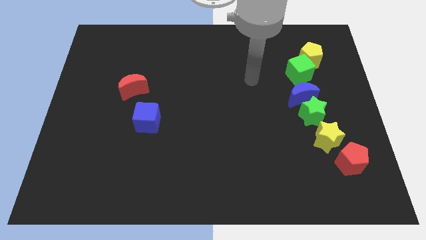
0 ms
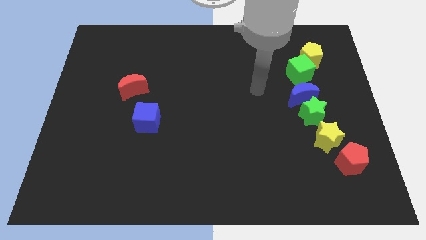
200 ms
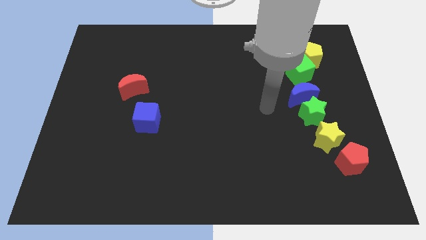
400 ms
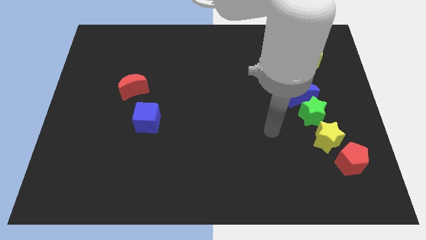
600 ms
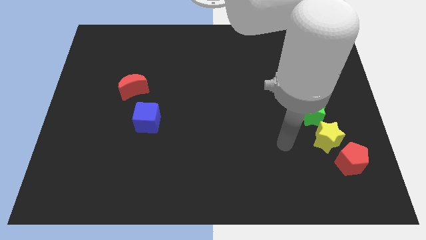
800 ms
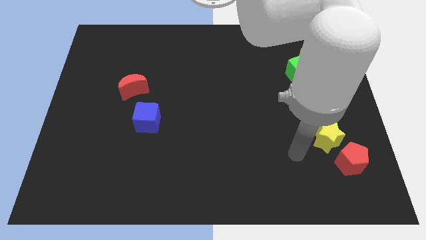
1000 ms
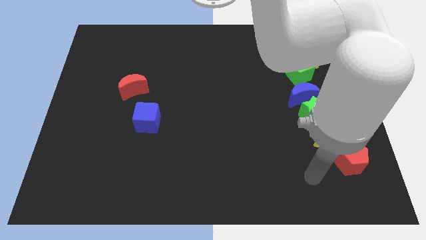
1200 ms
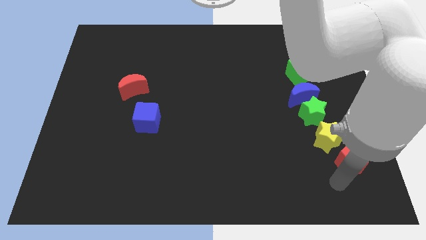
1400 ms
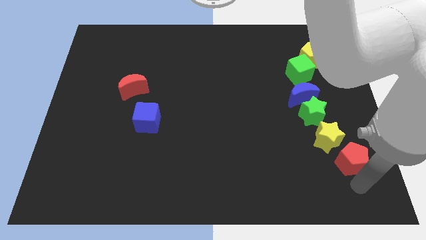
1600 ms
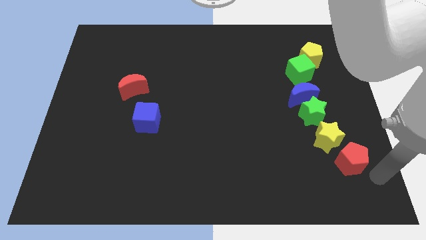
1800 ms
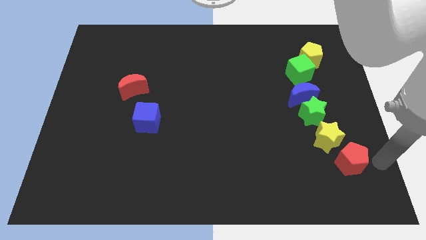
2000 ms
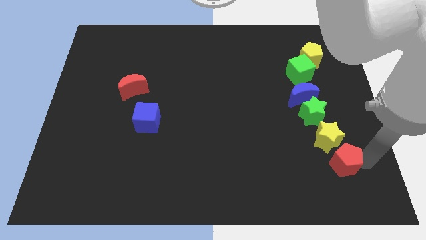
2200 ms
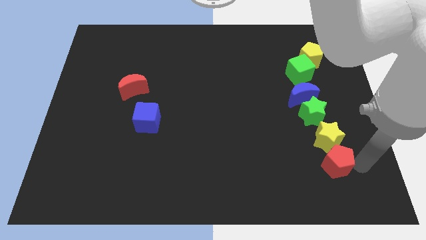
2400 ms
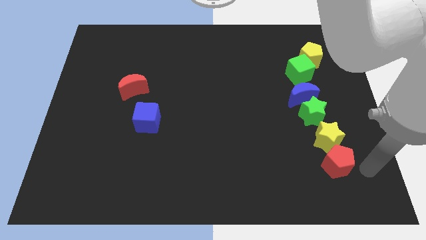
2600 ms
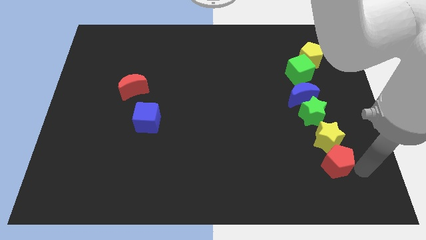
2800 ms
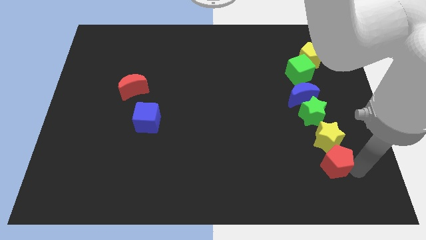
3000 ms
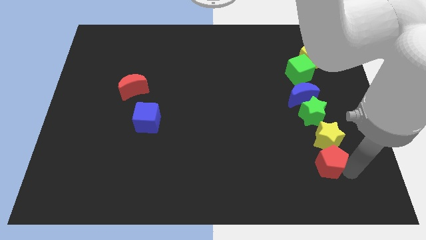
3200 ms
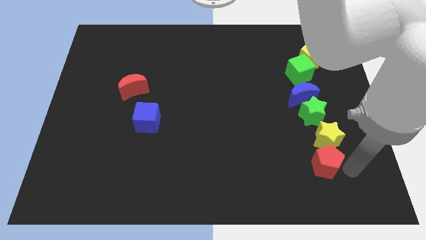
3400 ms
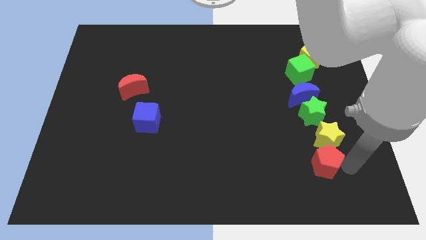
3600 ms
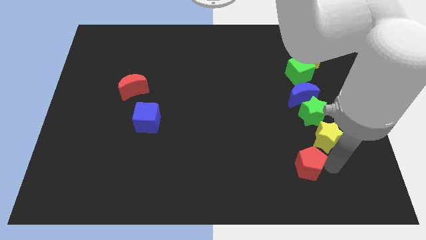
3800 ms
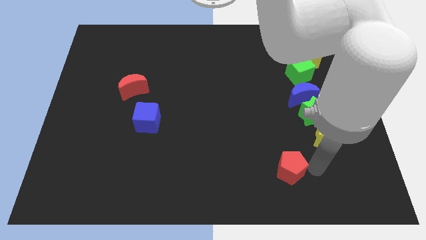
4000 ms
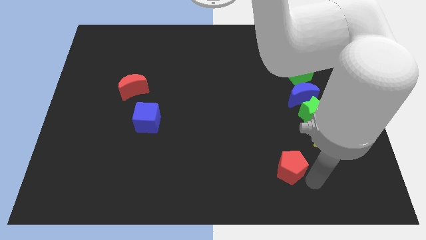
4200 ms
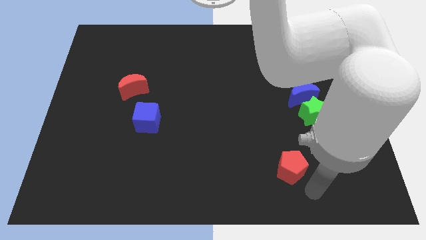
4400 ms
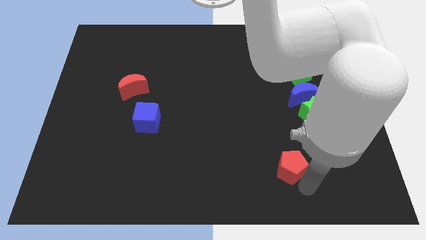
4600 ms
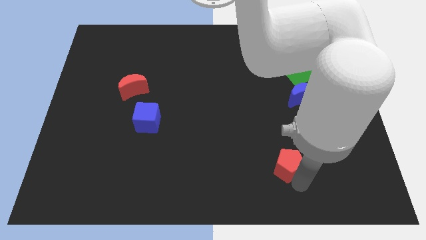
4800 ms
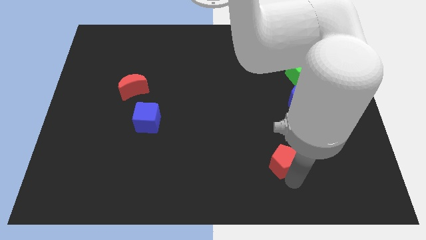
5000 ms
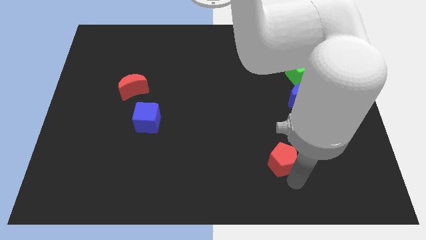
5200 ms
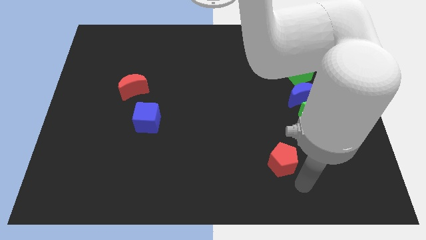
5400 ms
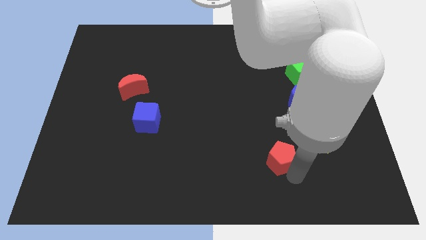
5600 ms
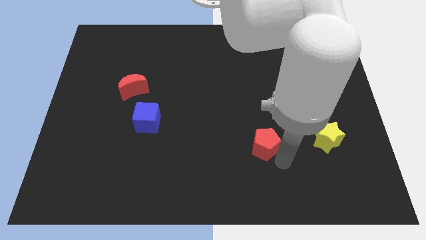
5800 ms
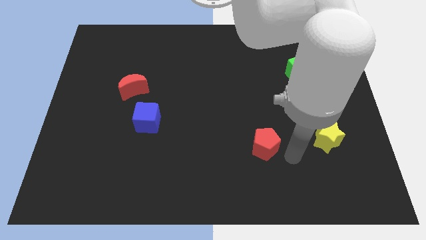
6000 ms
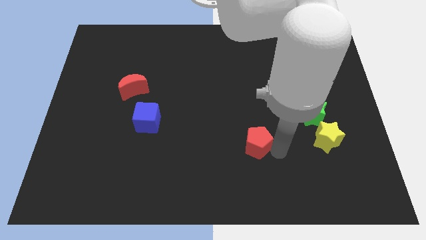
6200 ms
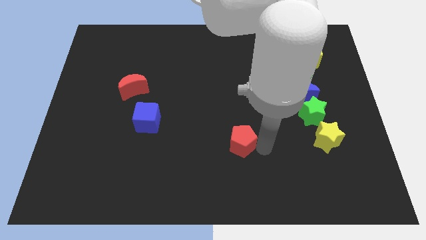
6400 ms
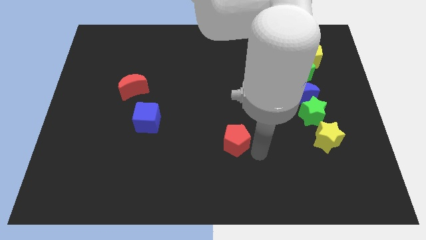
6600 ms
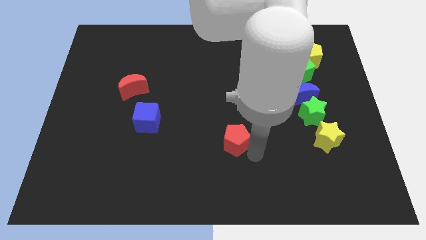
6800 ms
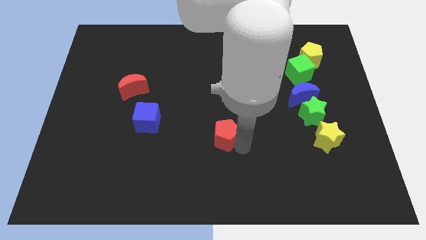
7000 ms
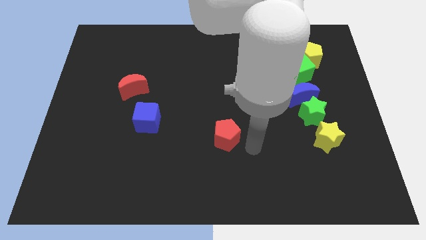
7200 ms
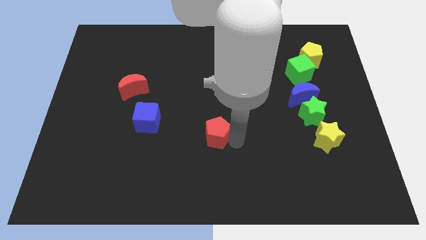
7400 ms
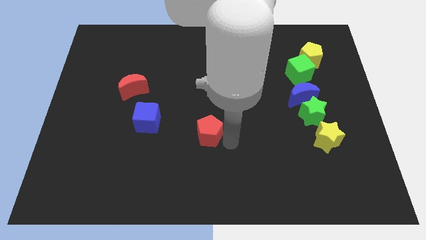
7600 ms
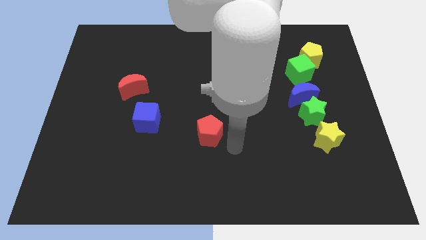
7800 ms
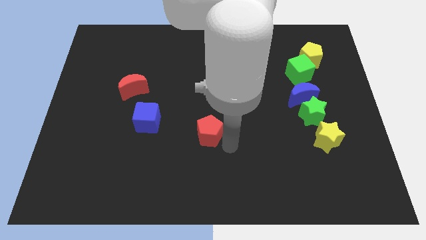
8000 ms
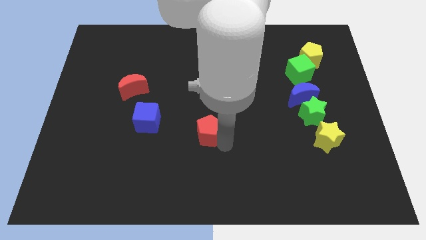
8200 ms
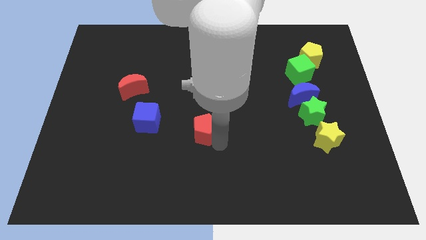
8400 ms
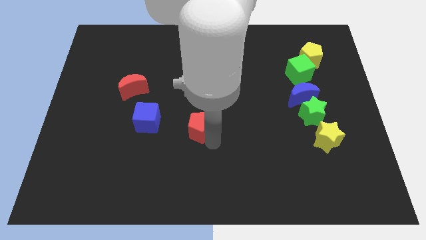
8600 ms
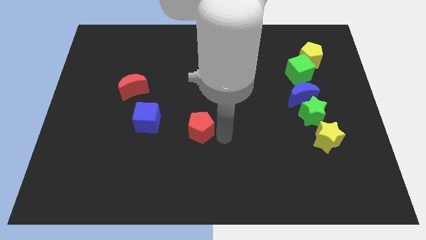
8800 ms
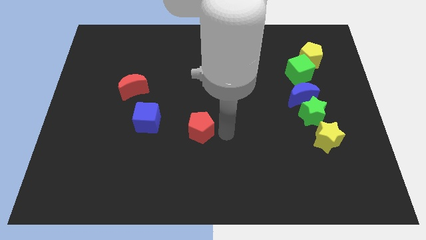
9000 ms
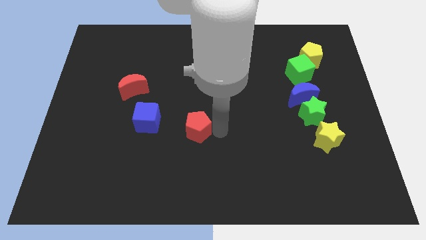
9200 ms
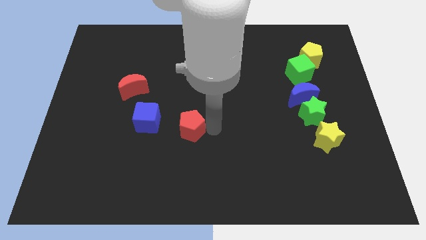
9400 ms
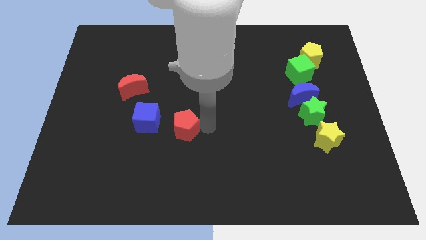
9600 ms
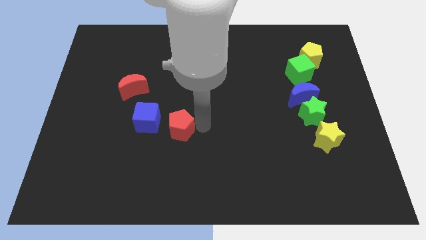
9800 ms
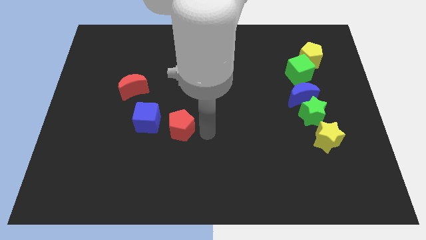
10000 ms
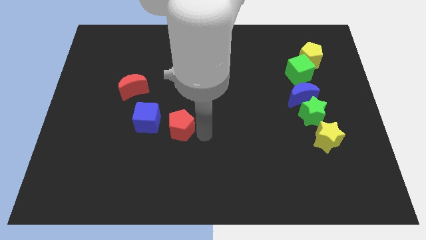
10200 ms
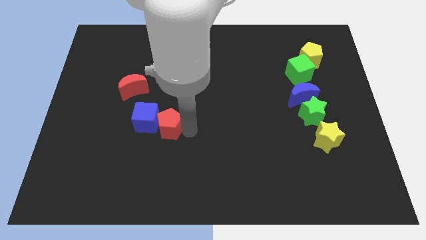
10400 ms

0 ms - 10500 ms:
slide the red pentagon towards the blue cube

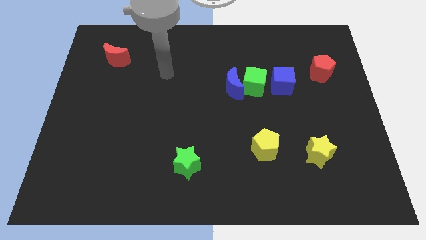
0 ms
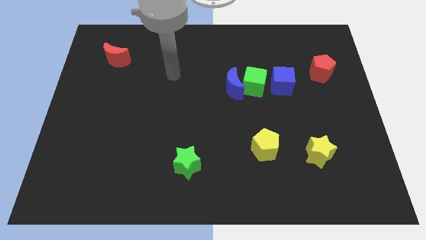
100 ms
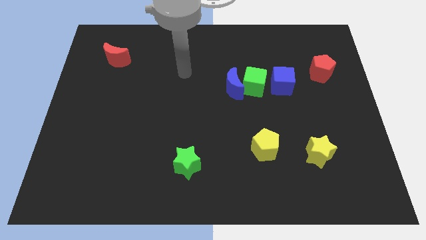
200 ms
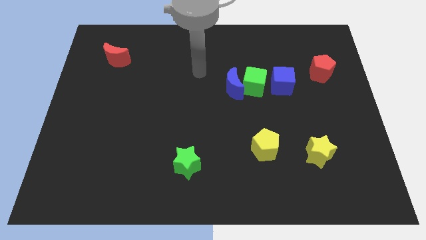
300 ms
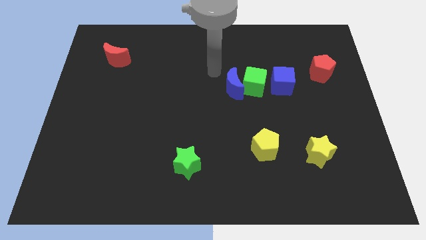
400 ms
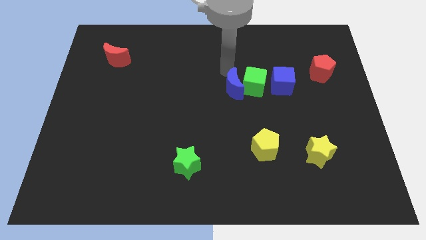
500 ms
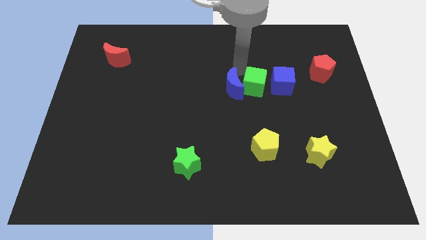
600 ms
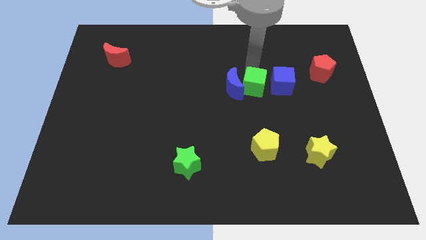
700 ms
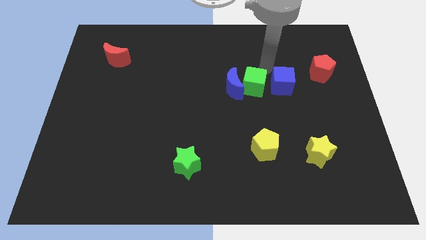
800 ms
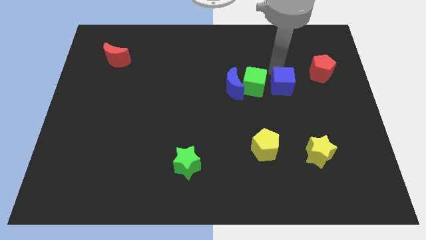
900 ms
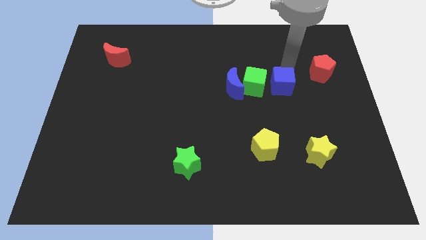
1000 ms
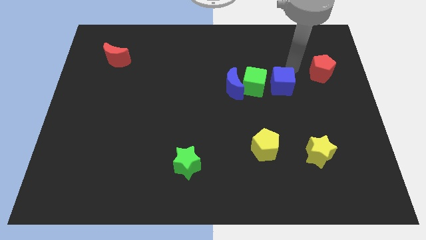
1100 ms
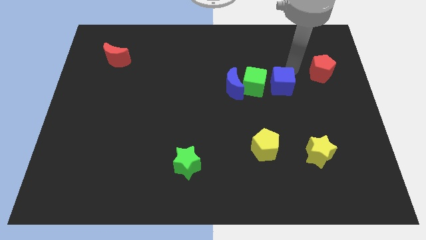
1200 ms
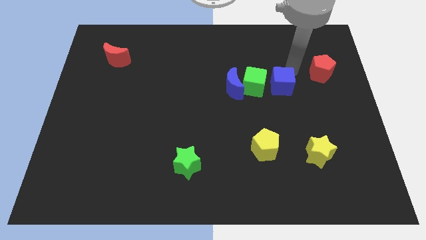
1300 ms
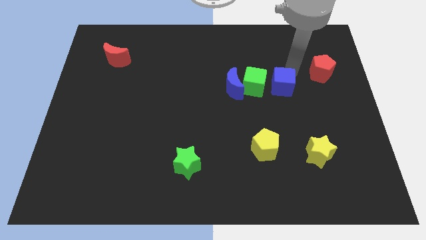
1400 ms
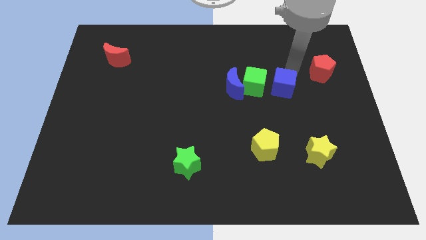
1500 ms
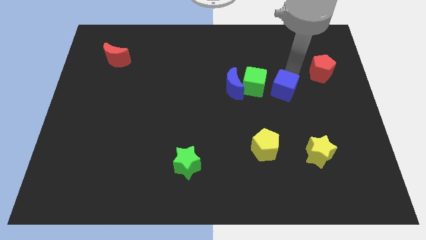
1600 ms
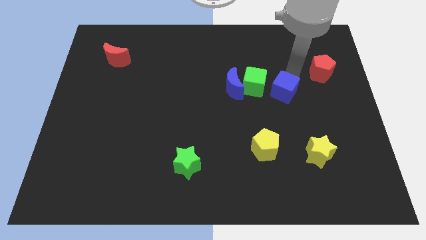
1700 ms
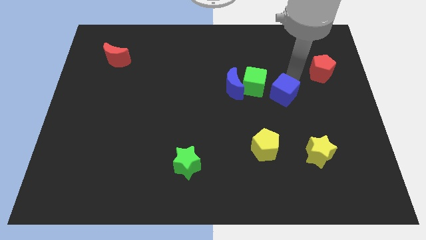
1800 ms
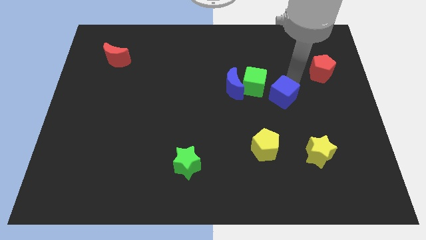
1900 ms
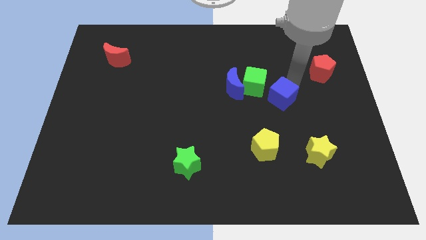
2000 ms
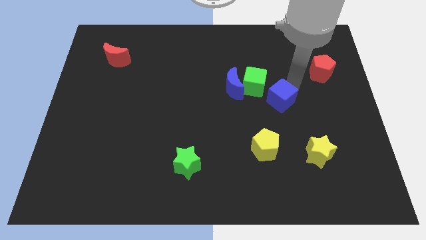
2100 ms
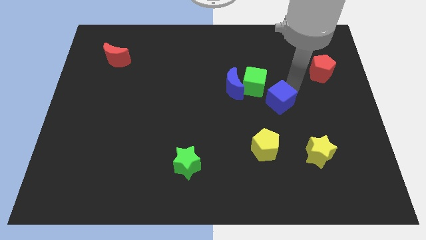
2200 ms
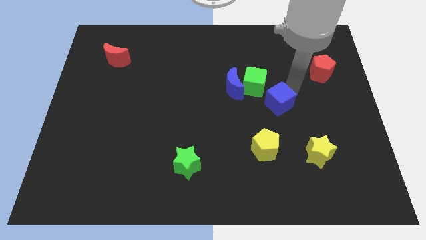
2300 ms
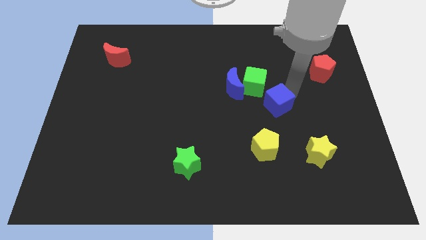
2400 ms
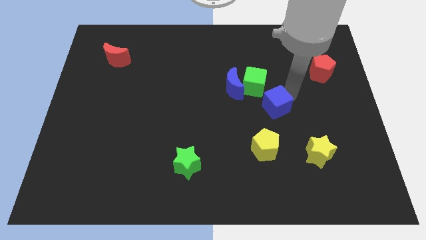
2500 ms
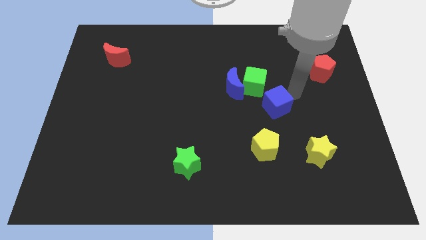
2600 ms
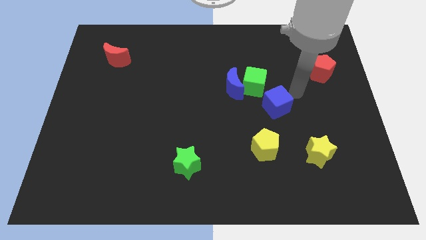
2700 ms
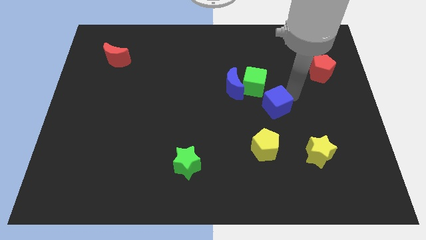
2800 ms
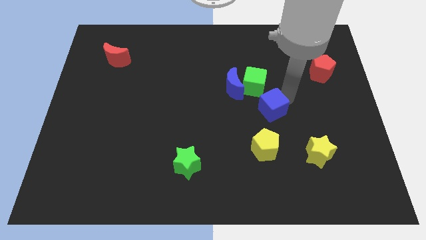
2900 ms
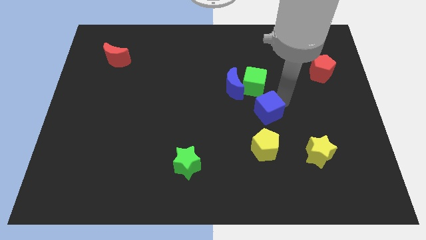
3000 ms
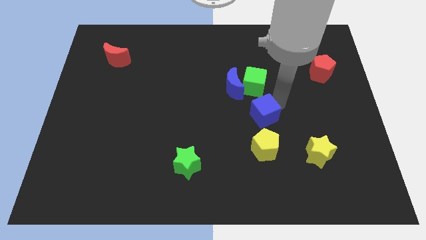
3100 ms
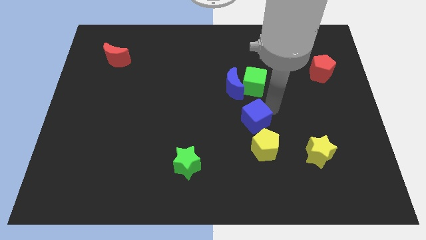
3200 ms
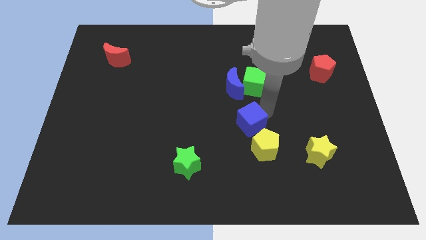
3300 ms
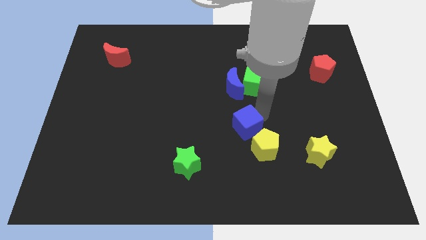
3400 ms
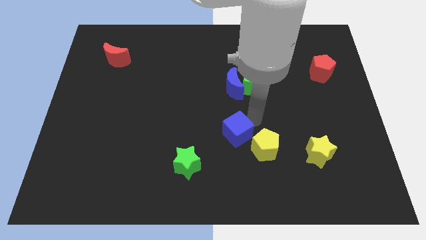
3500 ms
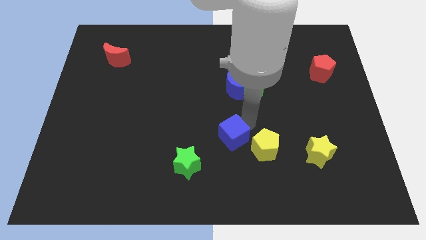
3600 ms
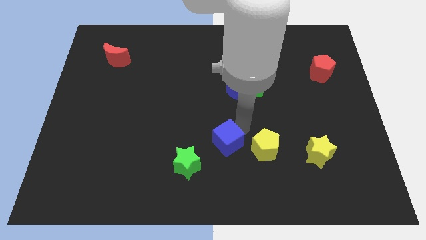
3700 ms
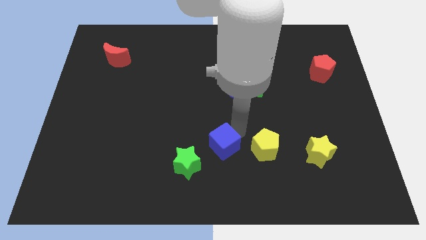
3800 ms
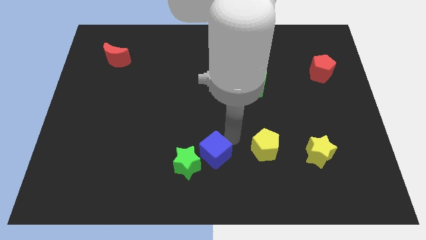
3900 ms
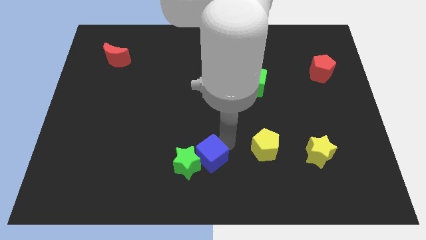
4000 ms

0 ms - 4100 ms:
put the blue cube close to the green star
